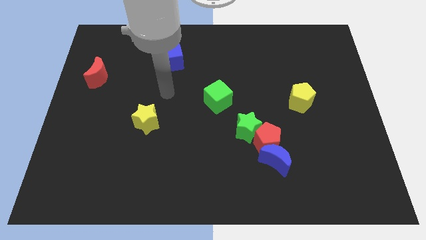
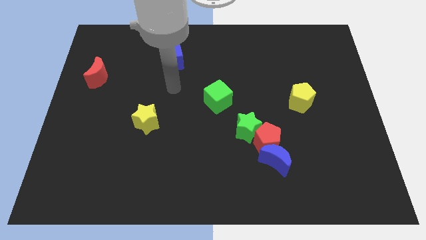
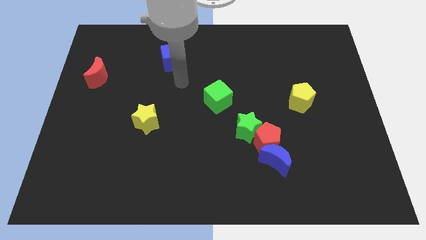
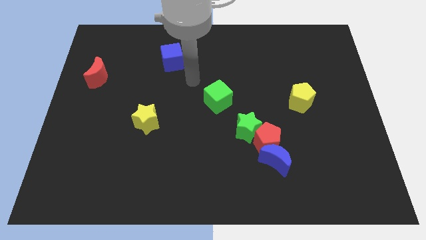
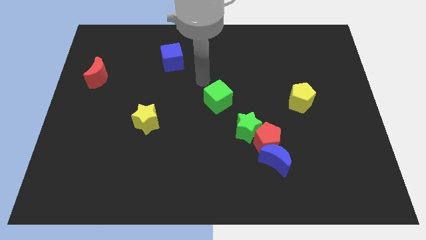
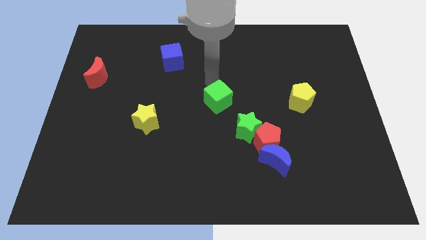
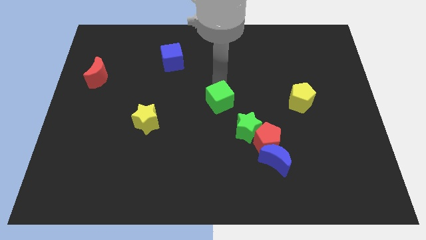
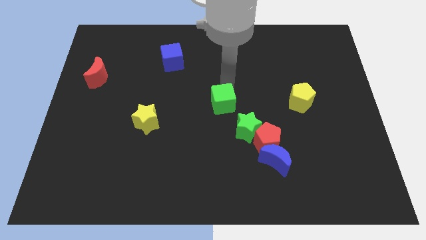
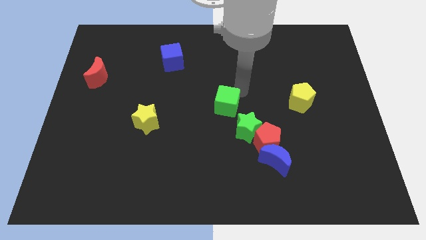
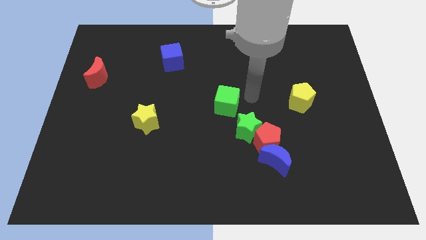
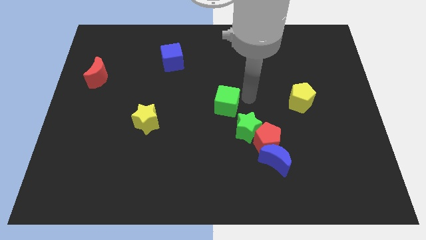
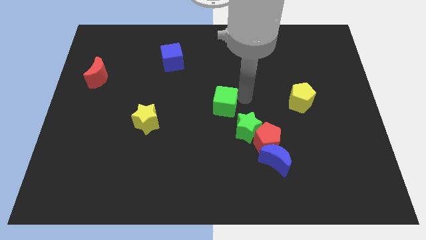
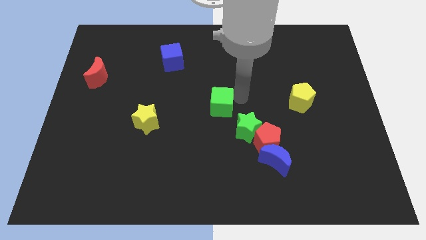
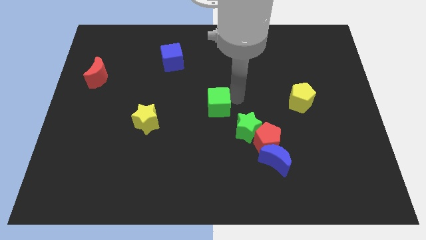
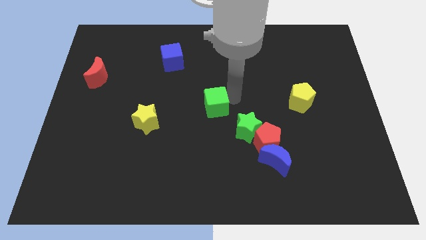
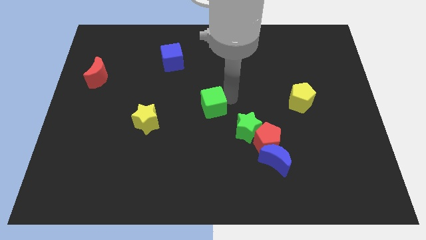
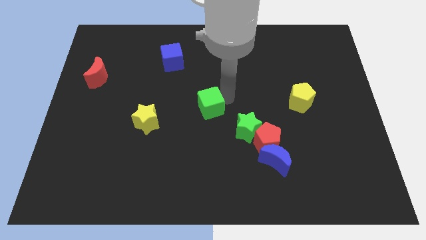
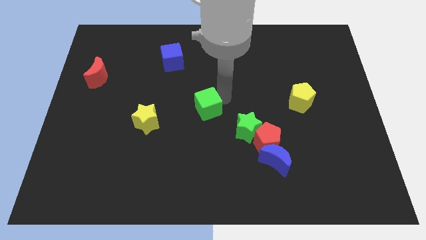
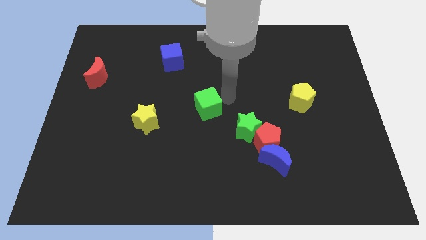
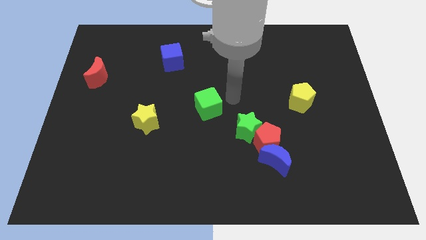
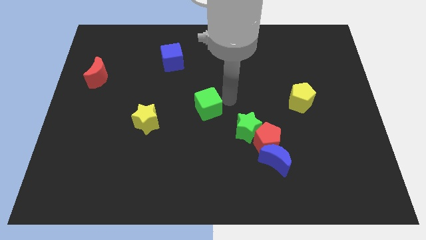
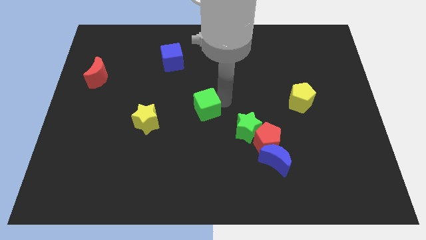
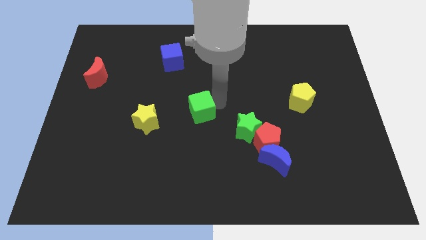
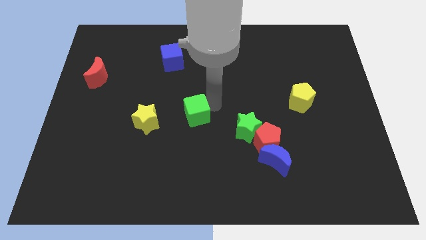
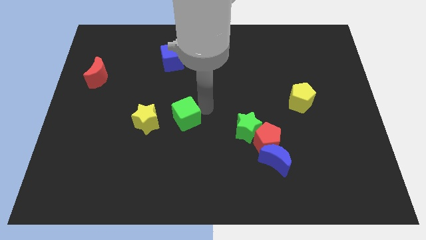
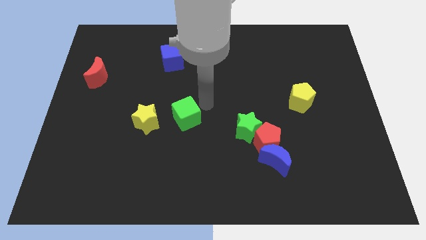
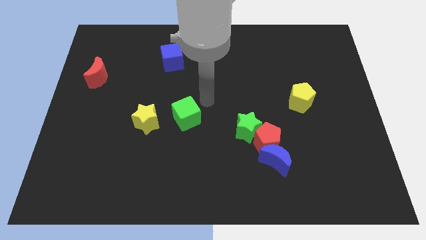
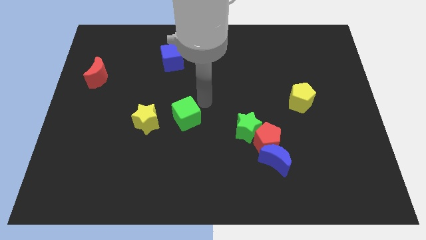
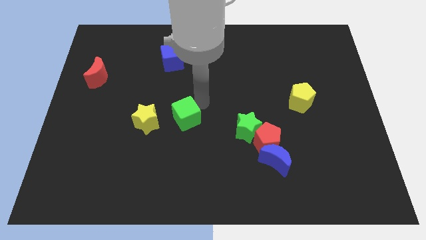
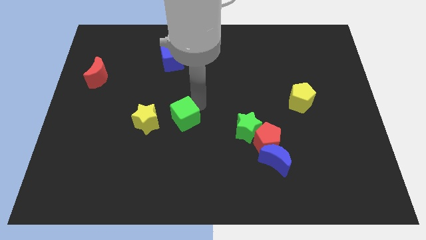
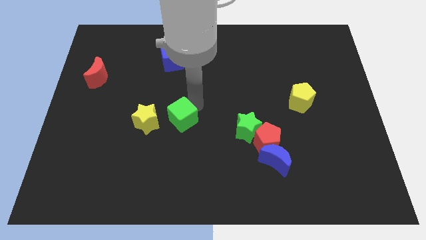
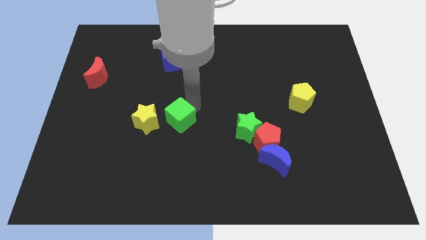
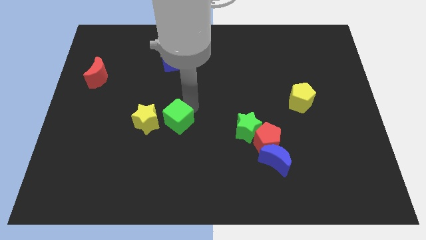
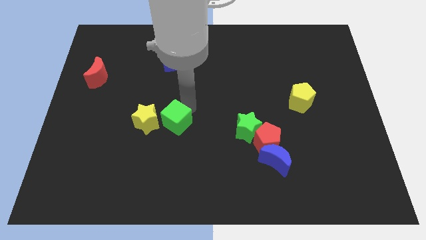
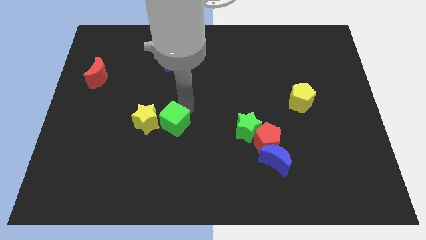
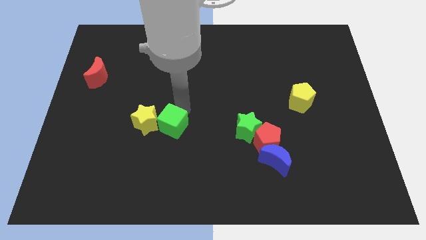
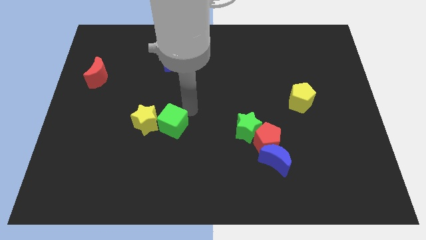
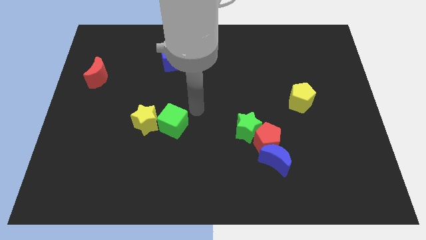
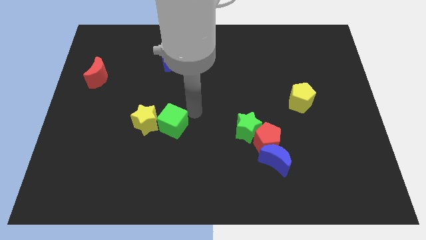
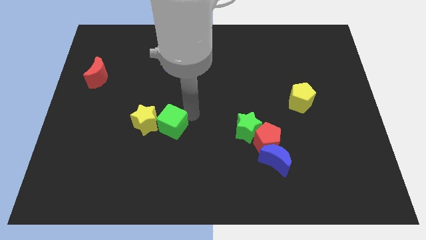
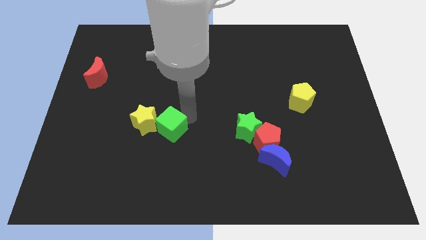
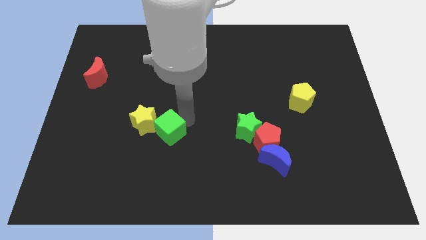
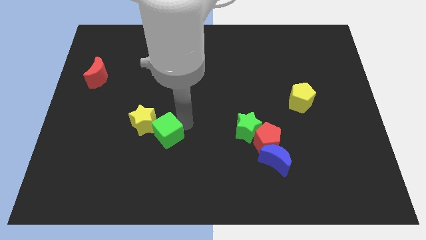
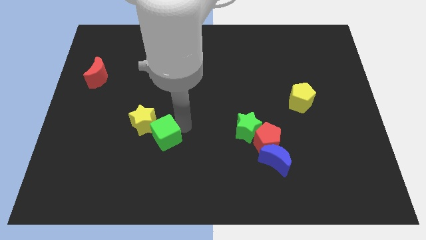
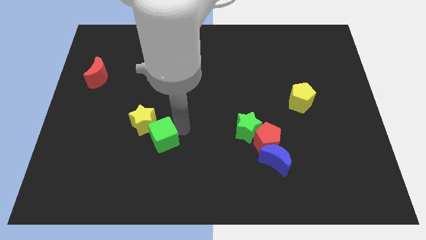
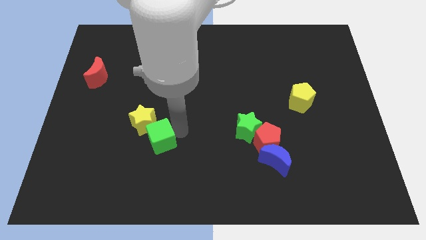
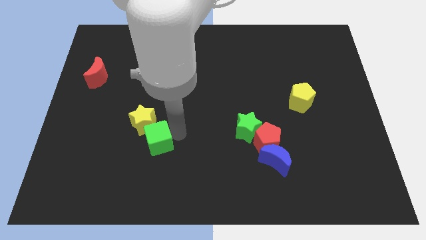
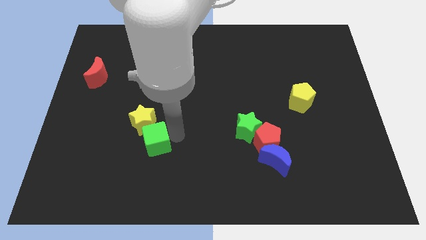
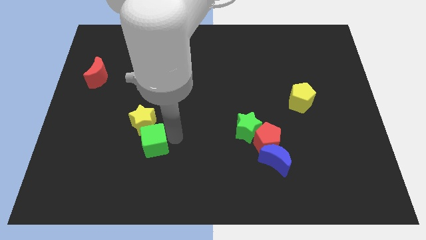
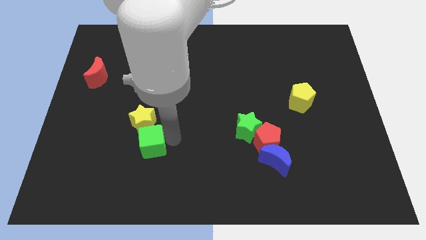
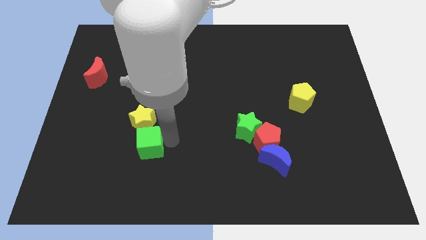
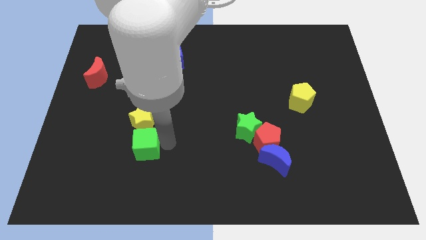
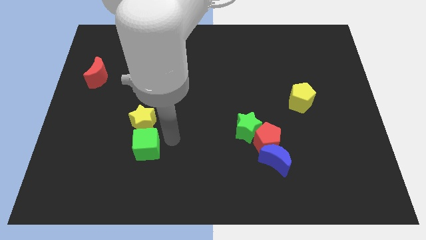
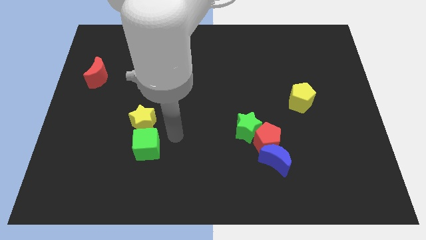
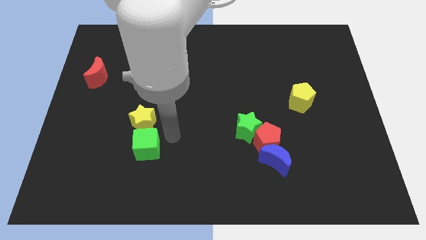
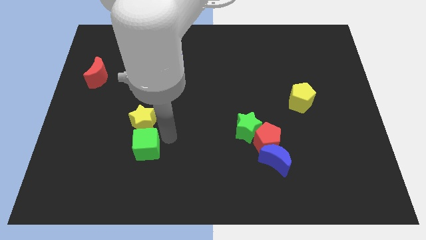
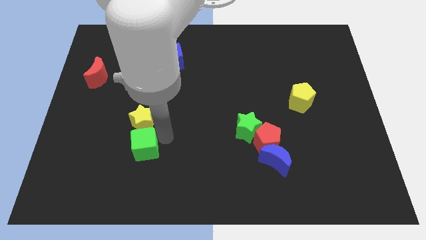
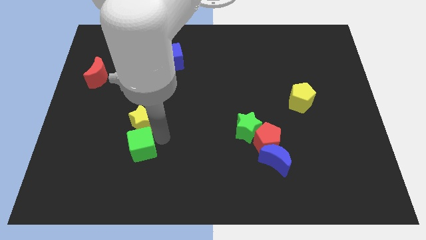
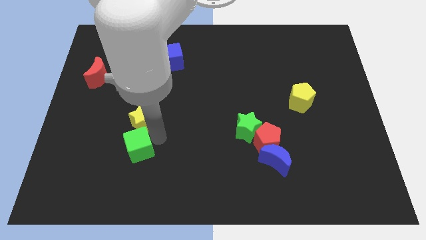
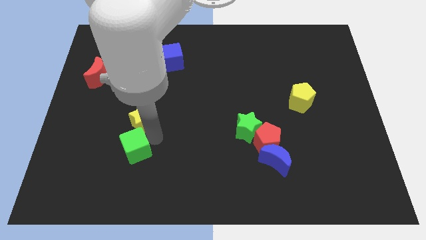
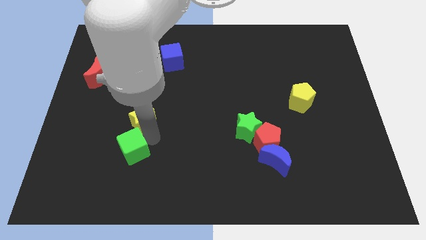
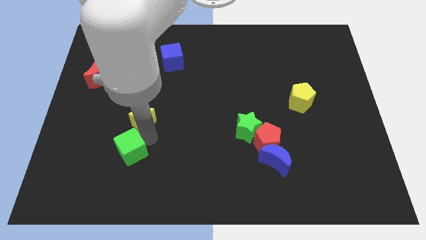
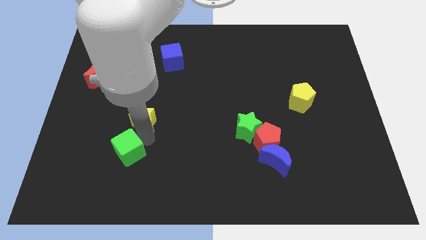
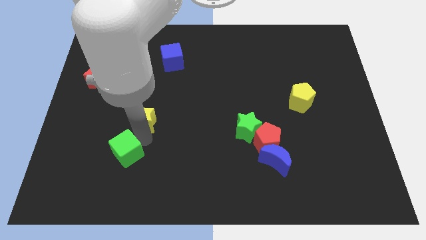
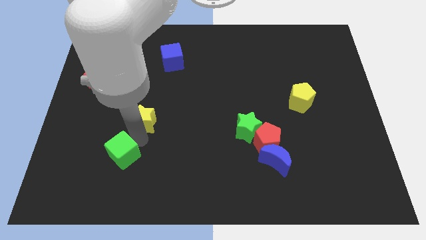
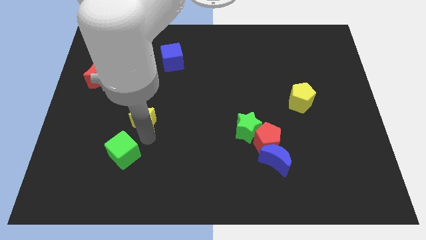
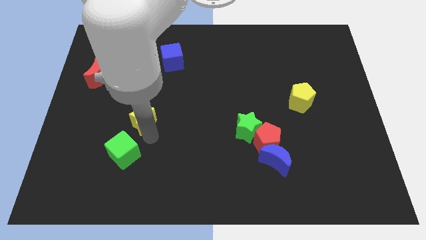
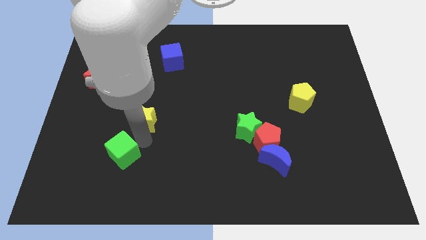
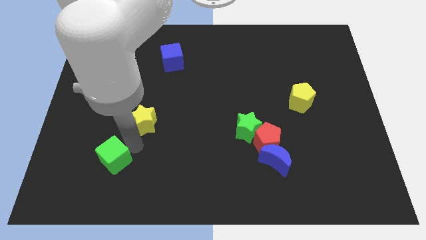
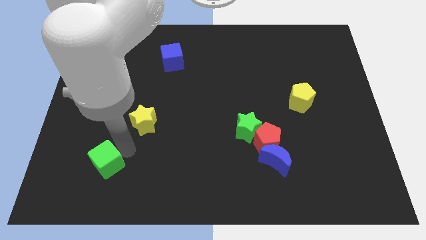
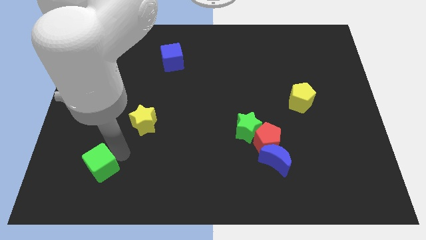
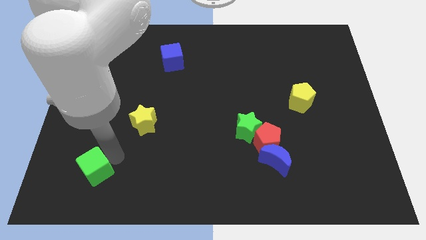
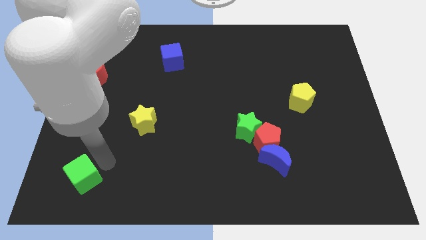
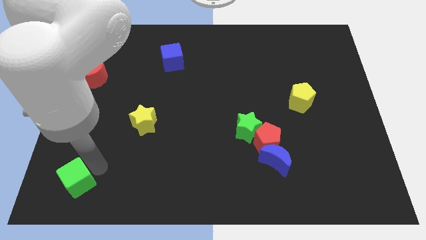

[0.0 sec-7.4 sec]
put the green cube to the lower left corner
